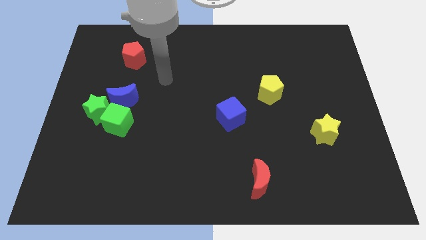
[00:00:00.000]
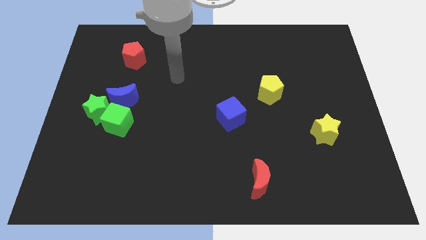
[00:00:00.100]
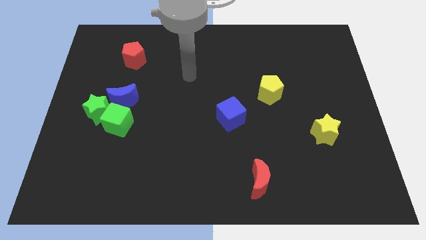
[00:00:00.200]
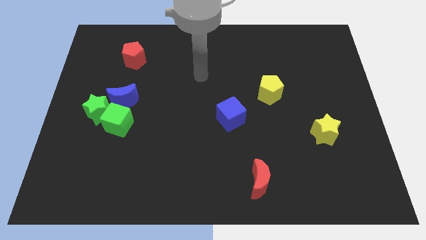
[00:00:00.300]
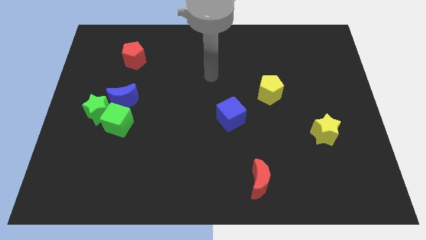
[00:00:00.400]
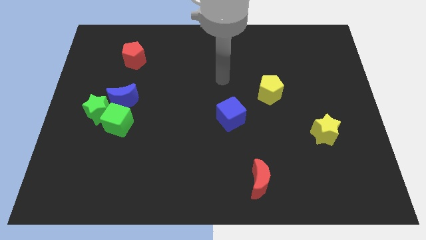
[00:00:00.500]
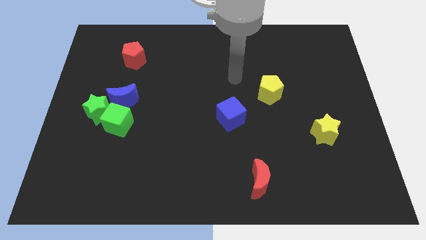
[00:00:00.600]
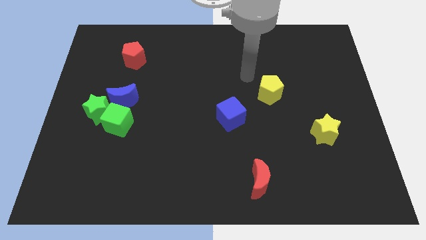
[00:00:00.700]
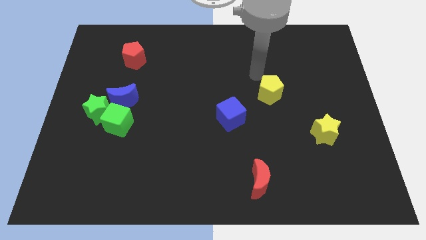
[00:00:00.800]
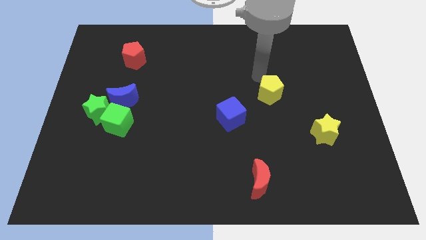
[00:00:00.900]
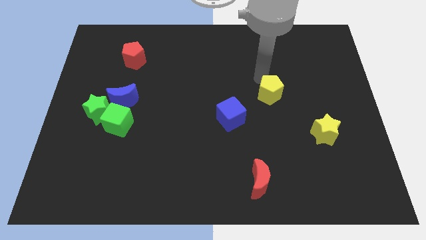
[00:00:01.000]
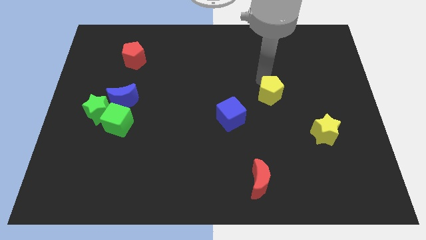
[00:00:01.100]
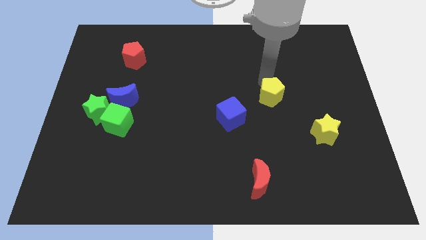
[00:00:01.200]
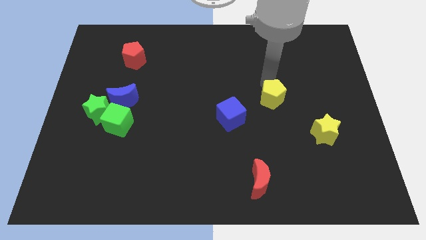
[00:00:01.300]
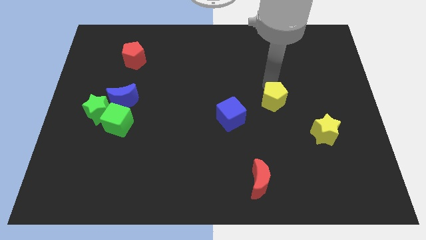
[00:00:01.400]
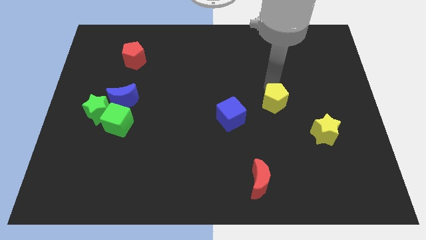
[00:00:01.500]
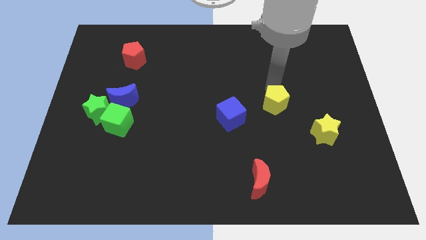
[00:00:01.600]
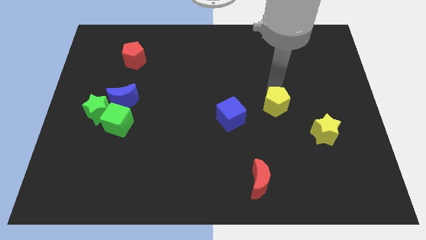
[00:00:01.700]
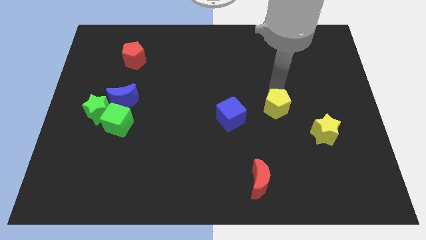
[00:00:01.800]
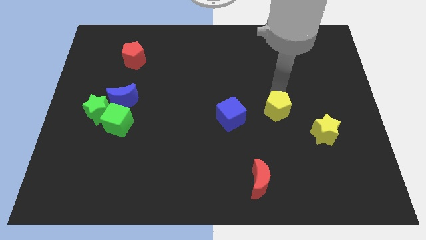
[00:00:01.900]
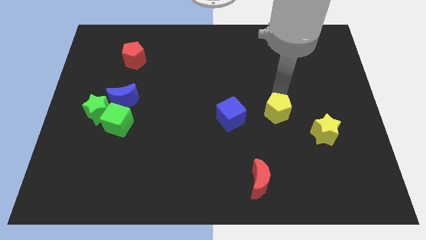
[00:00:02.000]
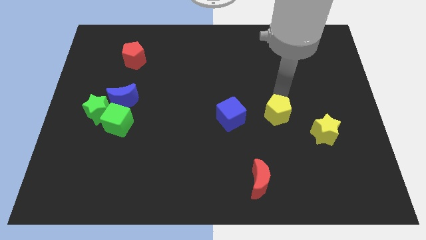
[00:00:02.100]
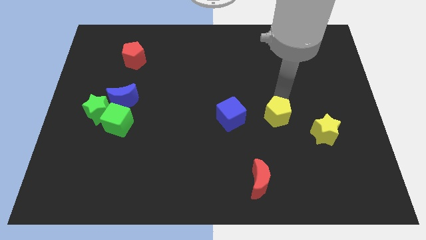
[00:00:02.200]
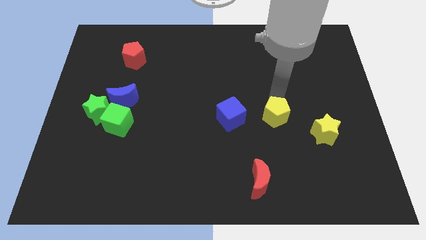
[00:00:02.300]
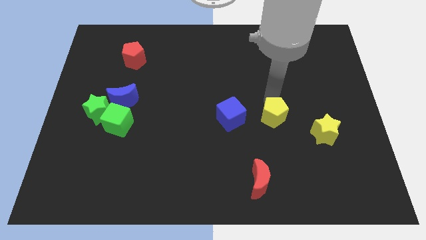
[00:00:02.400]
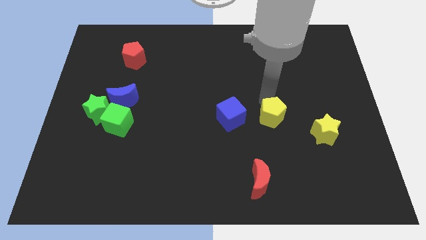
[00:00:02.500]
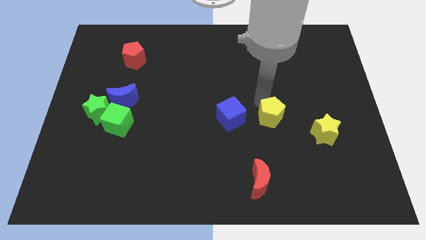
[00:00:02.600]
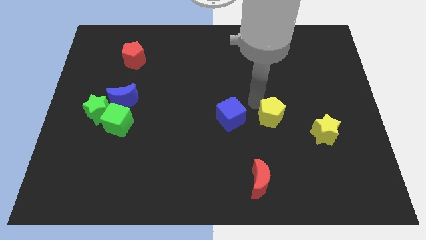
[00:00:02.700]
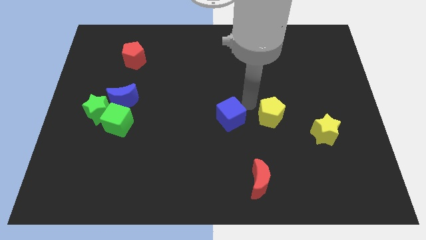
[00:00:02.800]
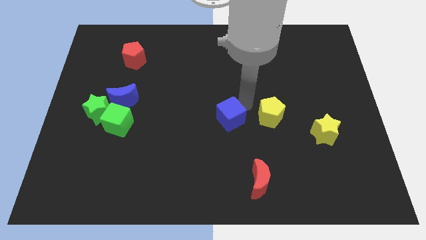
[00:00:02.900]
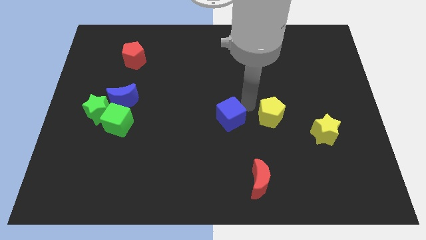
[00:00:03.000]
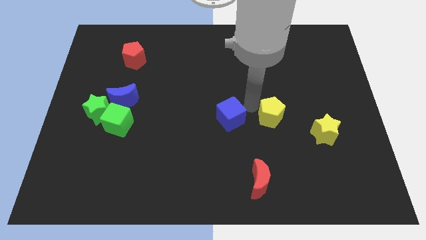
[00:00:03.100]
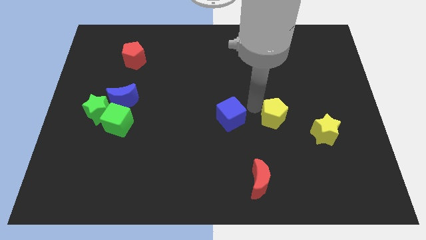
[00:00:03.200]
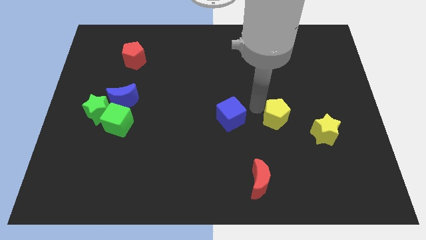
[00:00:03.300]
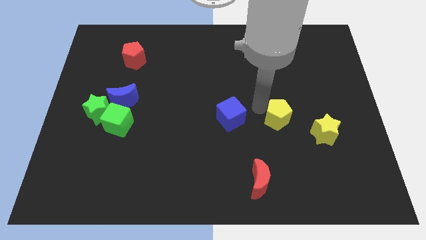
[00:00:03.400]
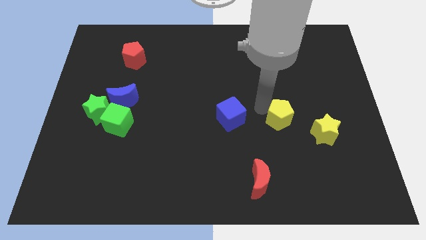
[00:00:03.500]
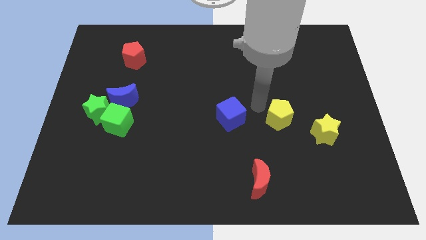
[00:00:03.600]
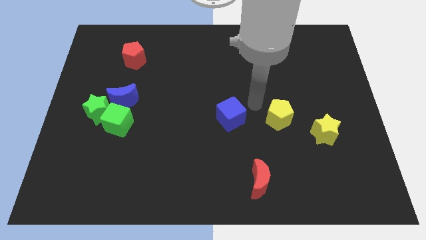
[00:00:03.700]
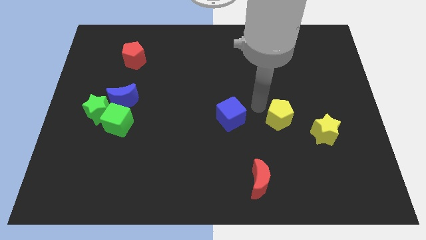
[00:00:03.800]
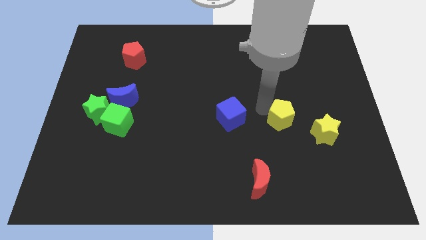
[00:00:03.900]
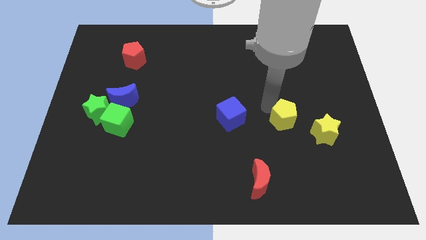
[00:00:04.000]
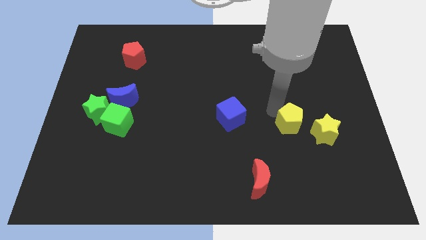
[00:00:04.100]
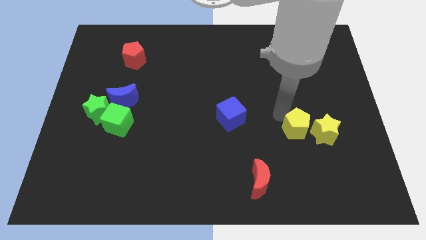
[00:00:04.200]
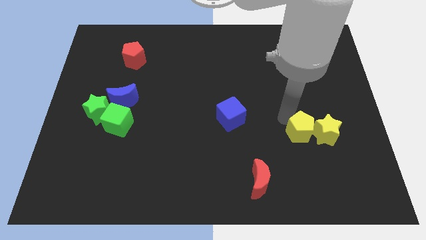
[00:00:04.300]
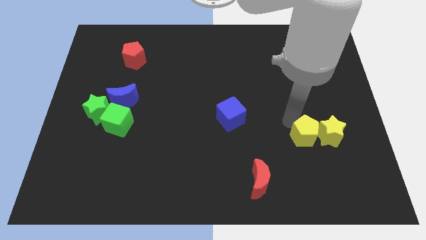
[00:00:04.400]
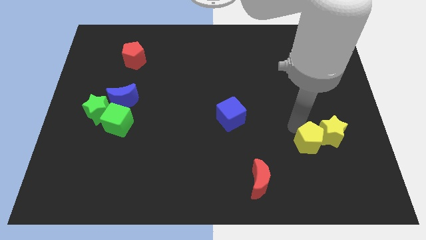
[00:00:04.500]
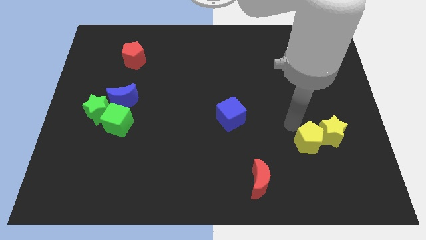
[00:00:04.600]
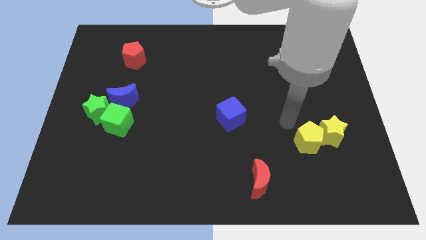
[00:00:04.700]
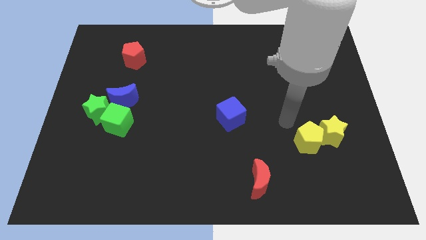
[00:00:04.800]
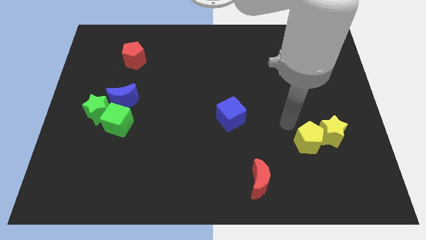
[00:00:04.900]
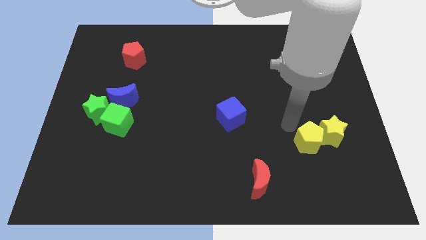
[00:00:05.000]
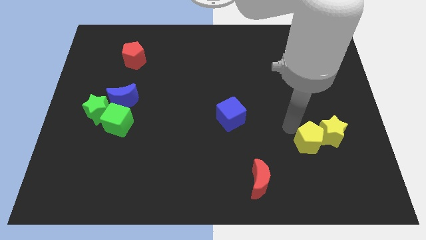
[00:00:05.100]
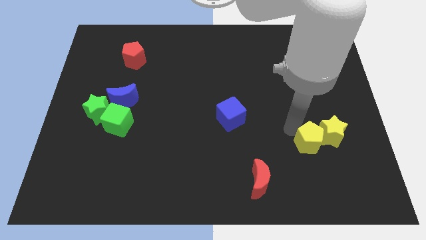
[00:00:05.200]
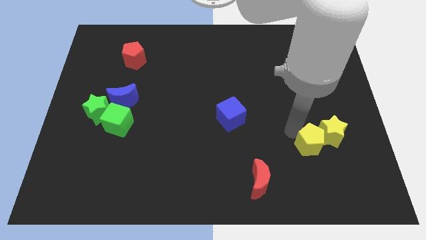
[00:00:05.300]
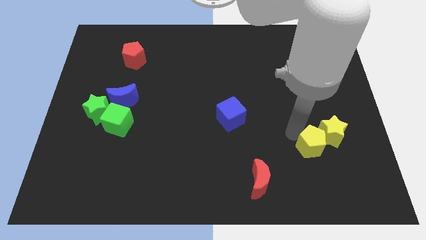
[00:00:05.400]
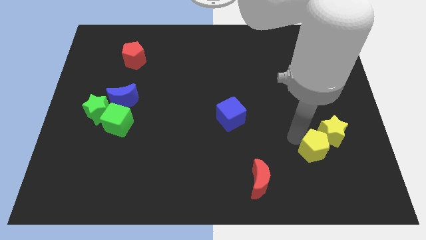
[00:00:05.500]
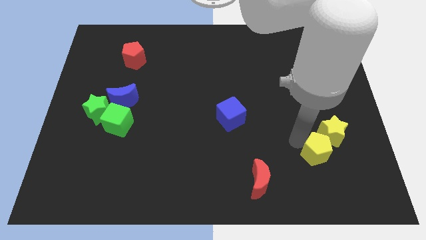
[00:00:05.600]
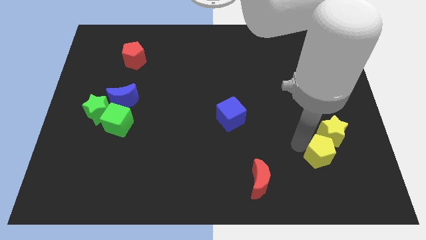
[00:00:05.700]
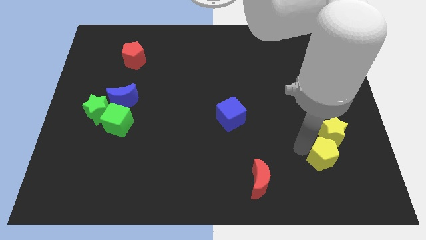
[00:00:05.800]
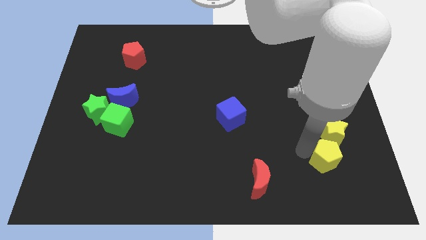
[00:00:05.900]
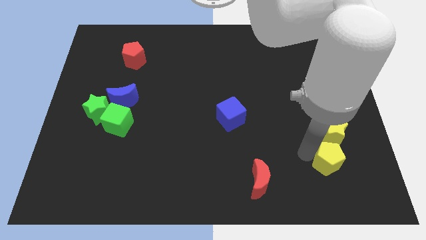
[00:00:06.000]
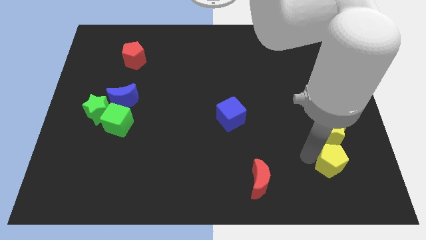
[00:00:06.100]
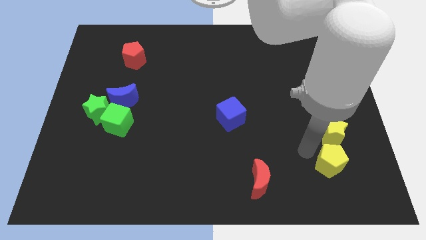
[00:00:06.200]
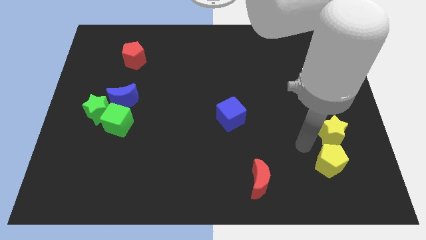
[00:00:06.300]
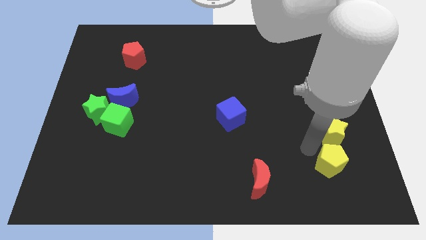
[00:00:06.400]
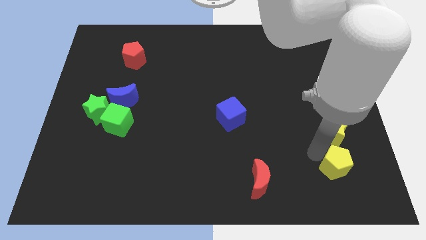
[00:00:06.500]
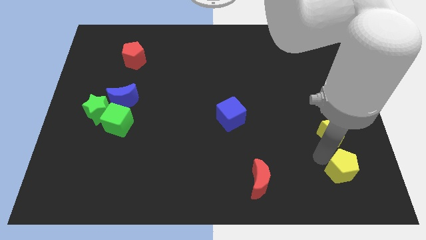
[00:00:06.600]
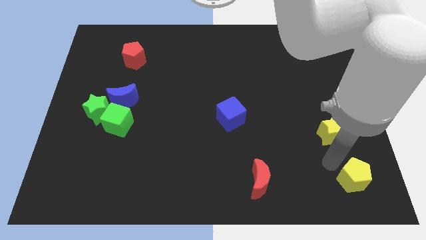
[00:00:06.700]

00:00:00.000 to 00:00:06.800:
push the yellow pentagon to the lower right corner

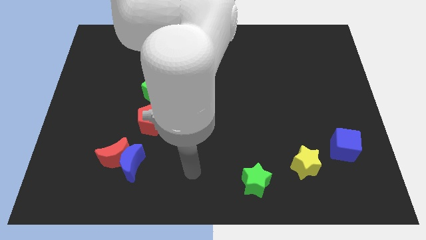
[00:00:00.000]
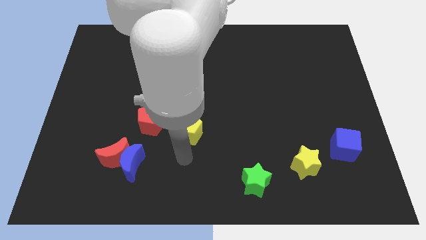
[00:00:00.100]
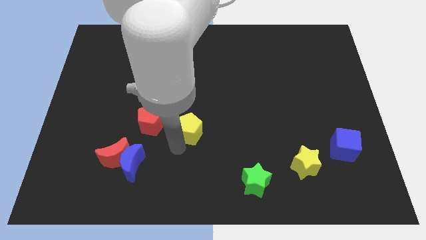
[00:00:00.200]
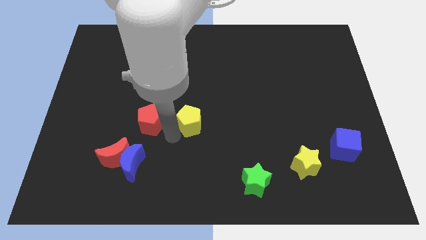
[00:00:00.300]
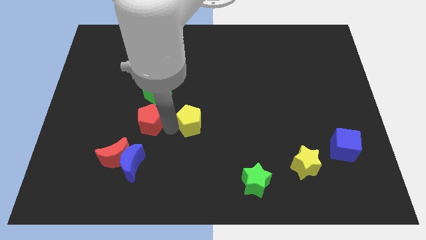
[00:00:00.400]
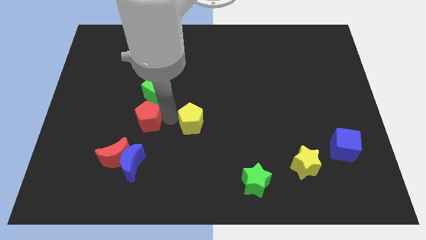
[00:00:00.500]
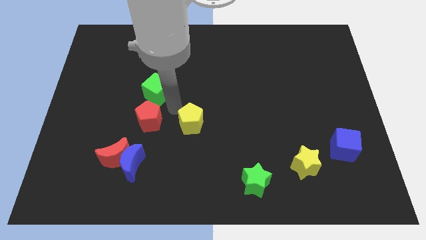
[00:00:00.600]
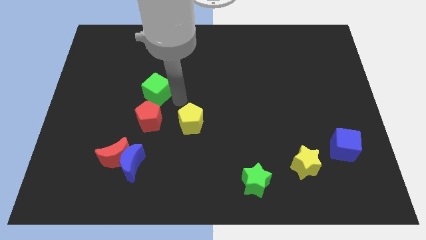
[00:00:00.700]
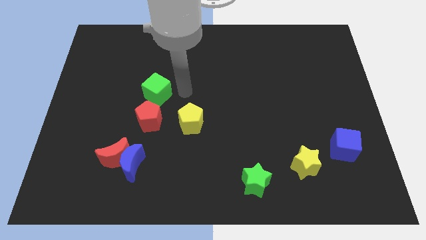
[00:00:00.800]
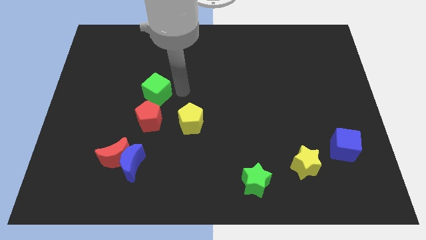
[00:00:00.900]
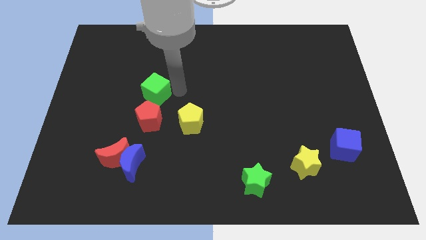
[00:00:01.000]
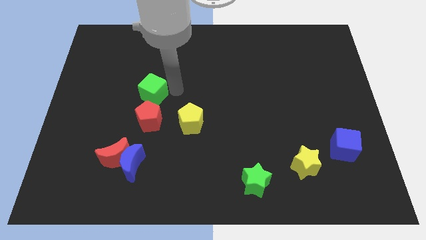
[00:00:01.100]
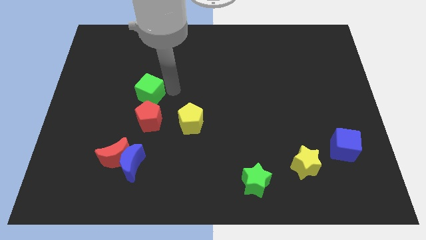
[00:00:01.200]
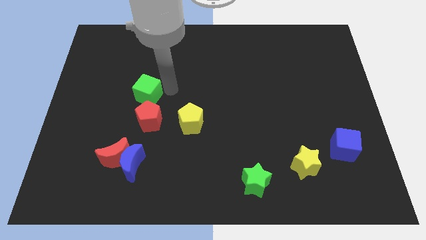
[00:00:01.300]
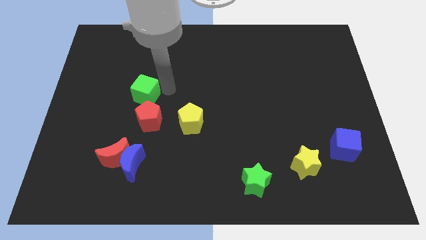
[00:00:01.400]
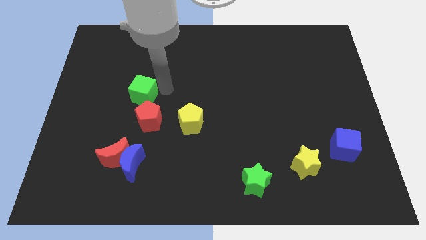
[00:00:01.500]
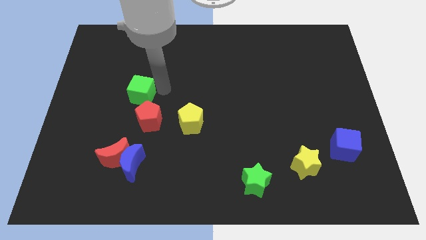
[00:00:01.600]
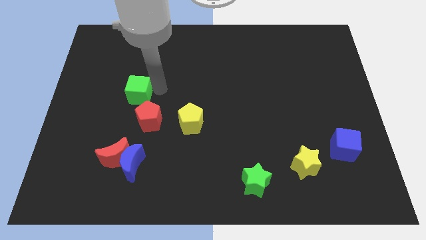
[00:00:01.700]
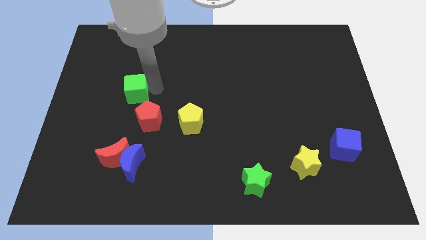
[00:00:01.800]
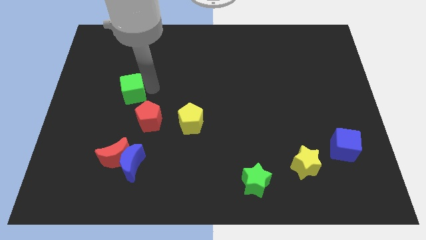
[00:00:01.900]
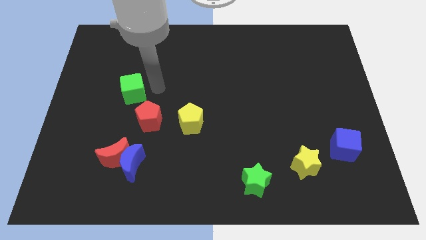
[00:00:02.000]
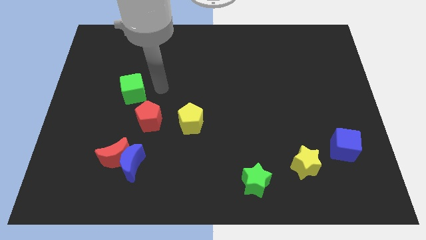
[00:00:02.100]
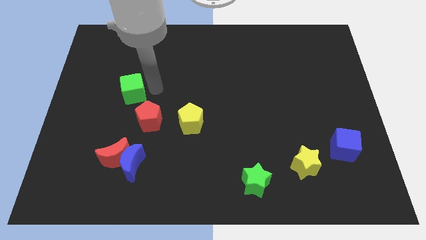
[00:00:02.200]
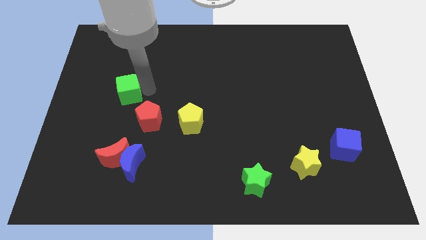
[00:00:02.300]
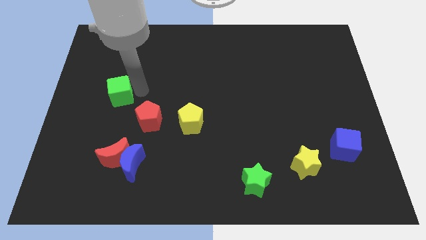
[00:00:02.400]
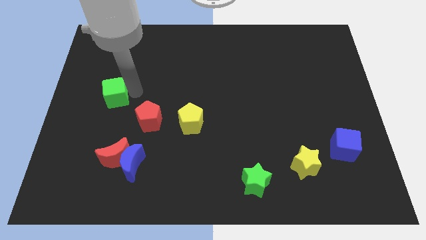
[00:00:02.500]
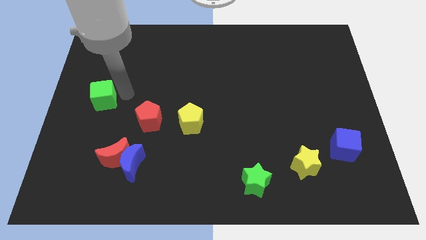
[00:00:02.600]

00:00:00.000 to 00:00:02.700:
push the green cube to the center left
